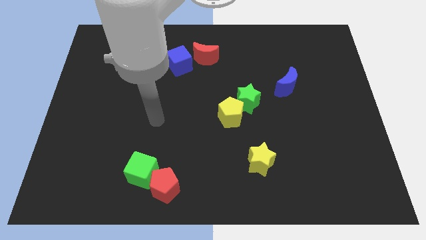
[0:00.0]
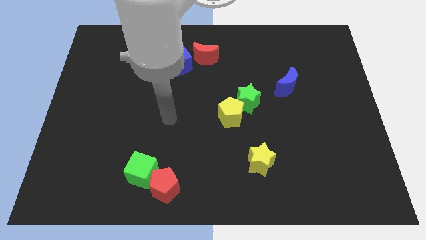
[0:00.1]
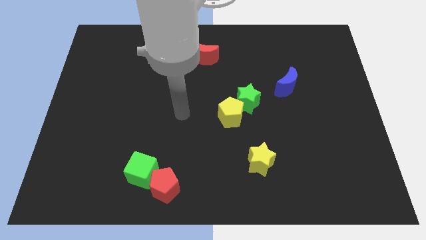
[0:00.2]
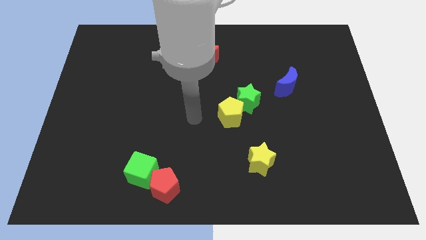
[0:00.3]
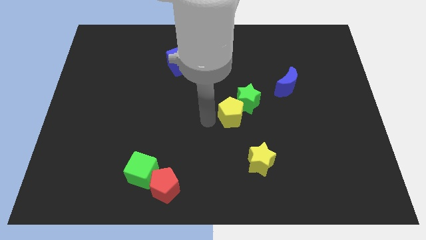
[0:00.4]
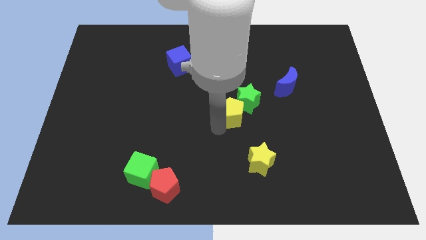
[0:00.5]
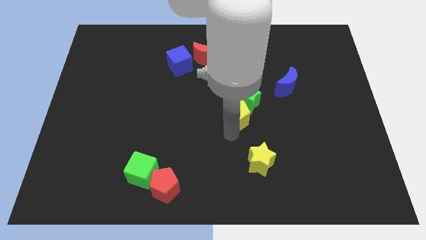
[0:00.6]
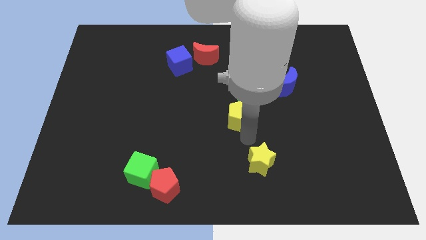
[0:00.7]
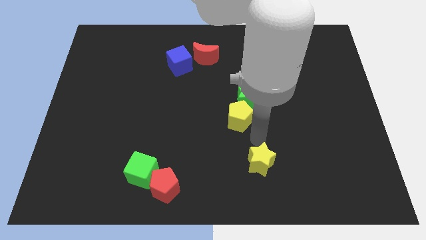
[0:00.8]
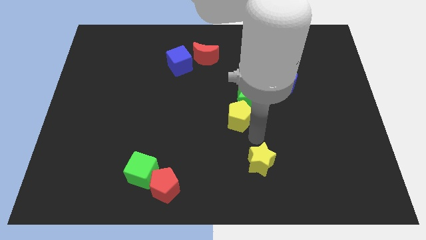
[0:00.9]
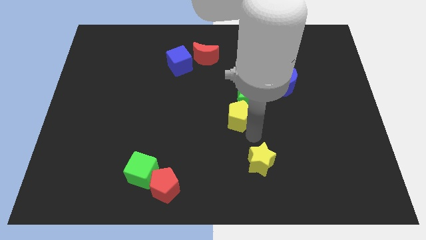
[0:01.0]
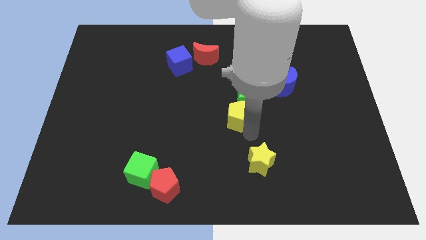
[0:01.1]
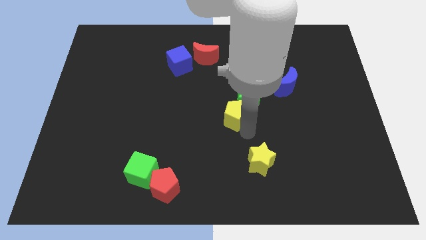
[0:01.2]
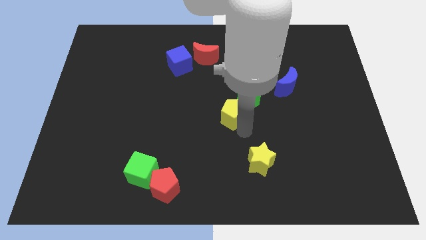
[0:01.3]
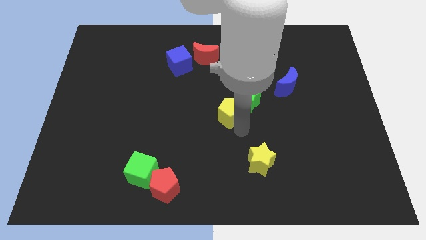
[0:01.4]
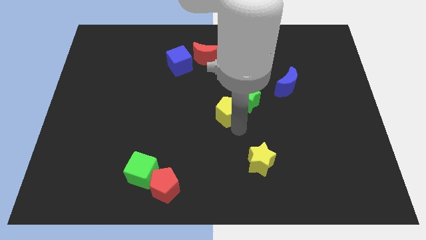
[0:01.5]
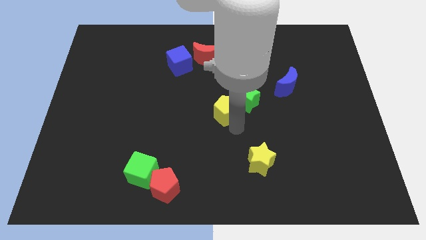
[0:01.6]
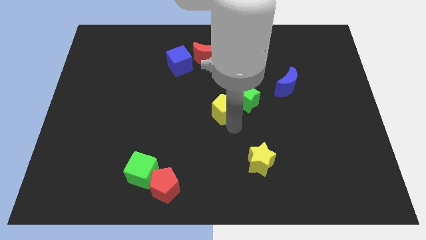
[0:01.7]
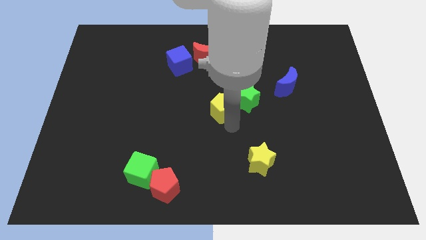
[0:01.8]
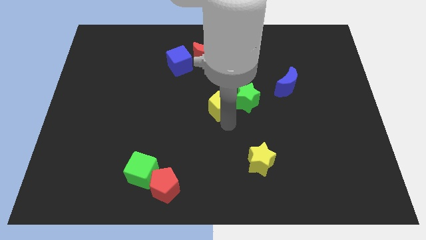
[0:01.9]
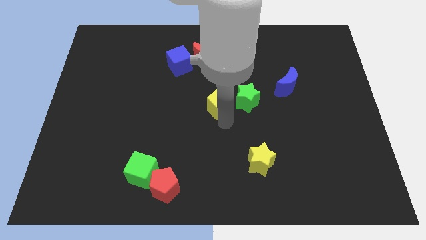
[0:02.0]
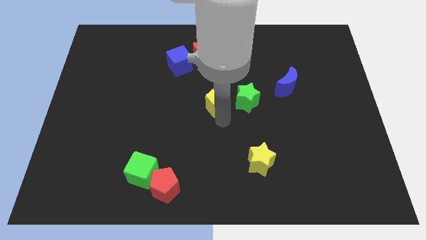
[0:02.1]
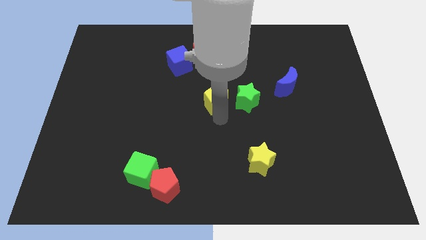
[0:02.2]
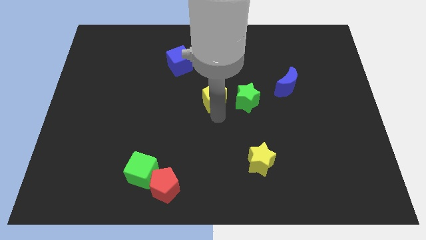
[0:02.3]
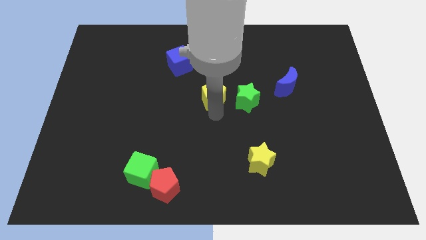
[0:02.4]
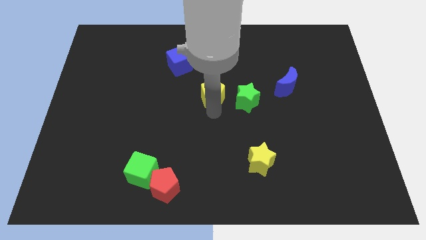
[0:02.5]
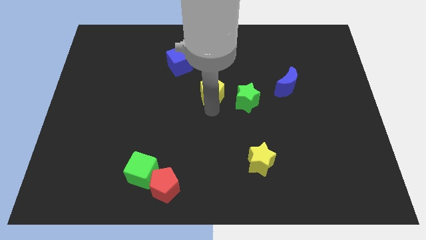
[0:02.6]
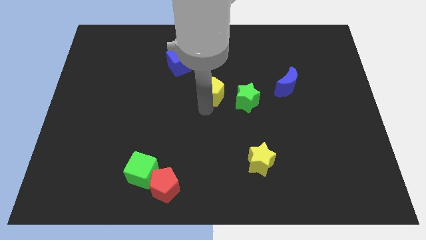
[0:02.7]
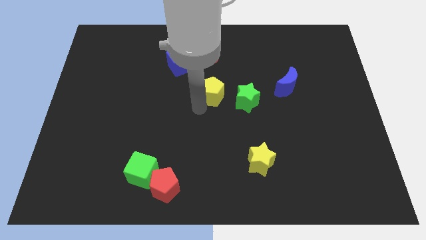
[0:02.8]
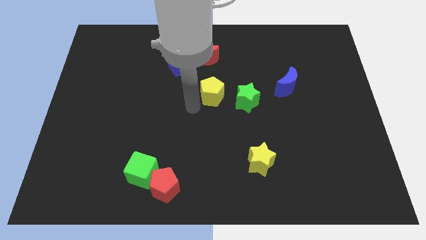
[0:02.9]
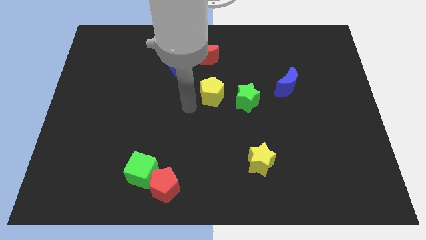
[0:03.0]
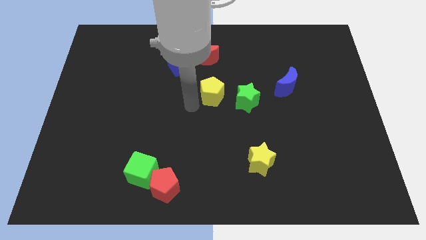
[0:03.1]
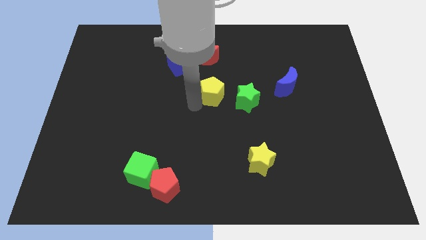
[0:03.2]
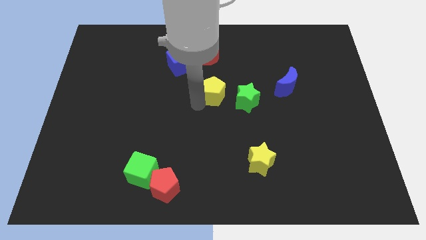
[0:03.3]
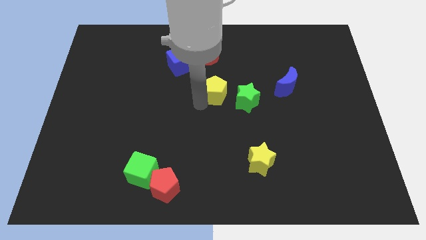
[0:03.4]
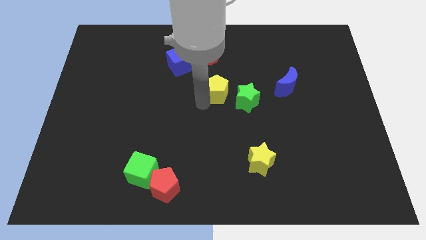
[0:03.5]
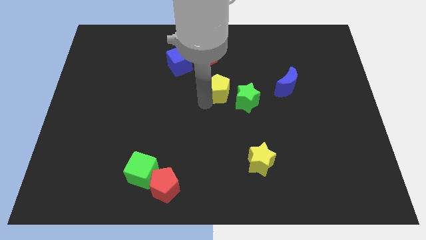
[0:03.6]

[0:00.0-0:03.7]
move the yellow pentagon upwards somewhat

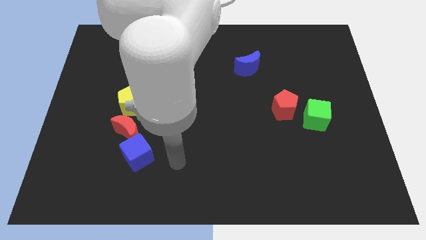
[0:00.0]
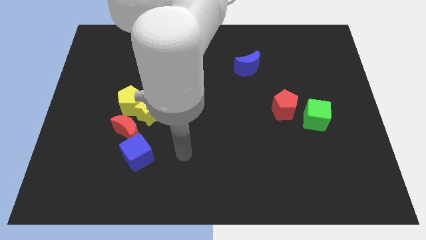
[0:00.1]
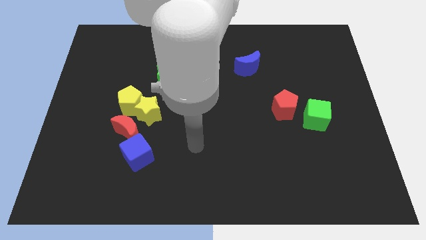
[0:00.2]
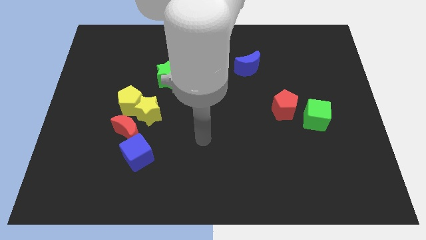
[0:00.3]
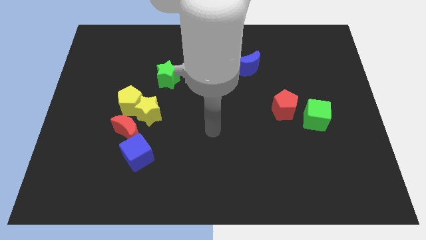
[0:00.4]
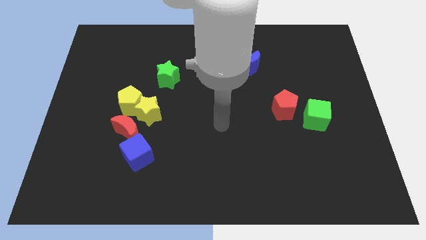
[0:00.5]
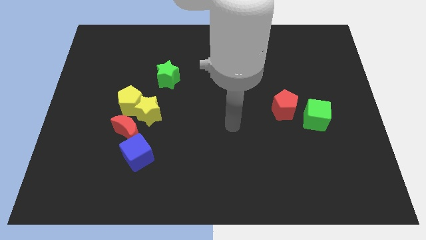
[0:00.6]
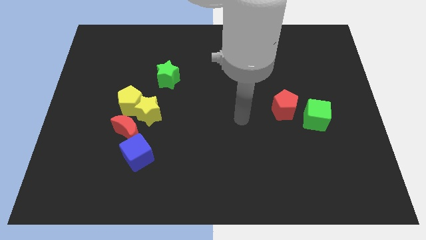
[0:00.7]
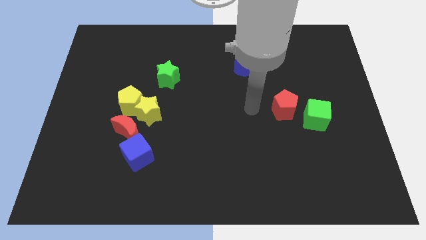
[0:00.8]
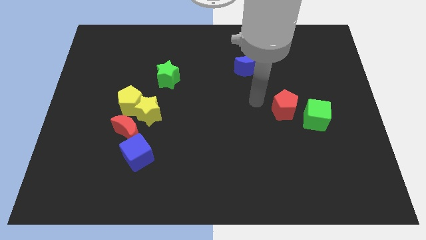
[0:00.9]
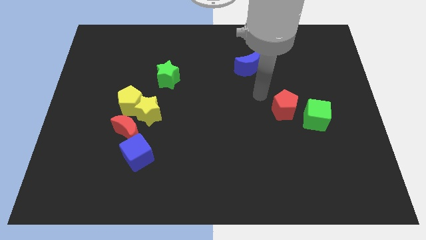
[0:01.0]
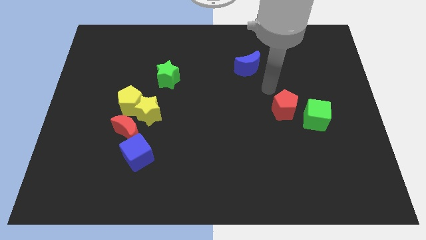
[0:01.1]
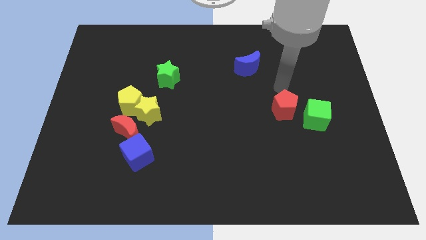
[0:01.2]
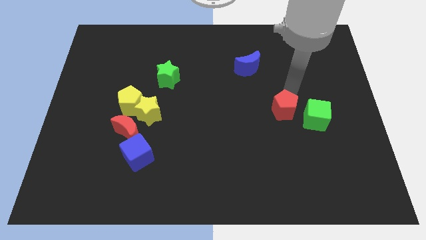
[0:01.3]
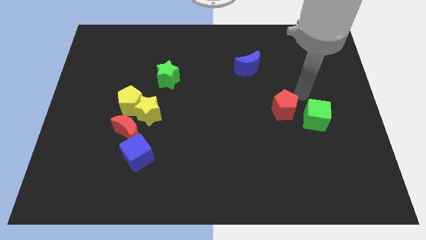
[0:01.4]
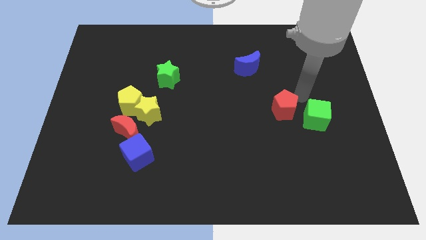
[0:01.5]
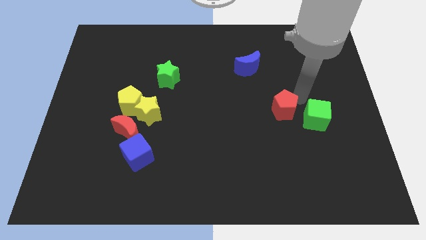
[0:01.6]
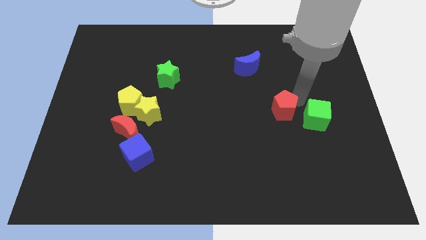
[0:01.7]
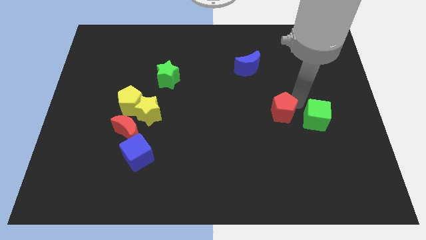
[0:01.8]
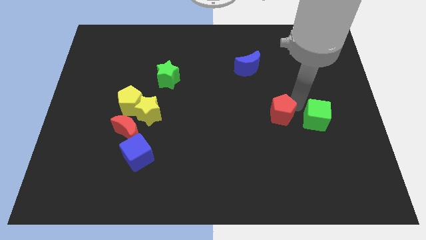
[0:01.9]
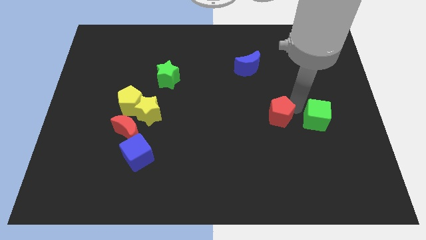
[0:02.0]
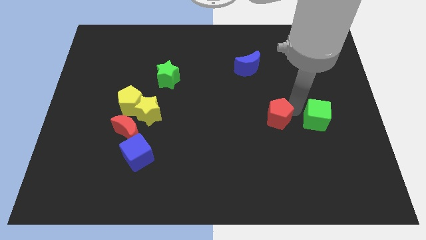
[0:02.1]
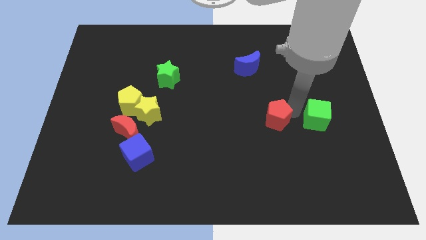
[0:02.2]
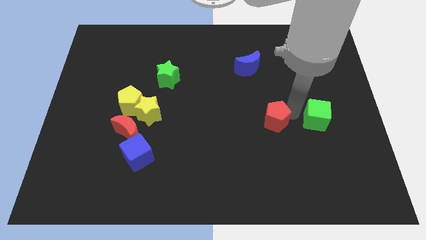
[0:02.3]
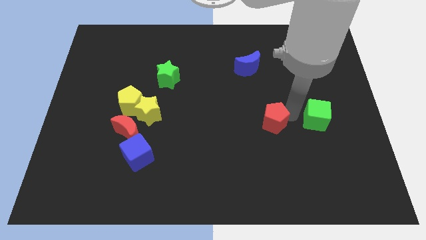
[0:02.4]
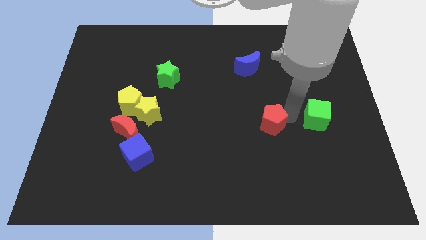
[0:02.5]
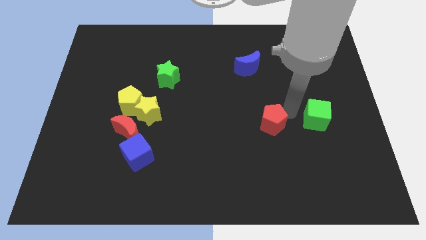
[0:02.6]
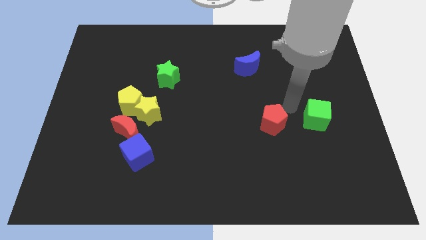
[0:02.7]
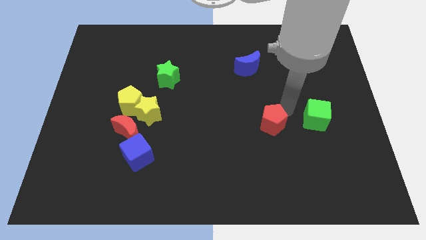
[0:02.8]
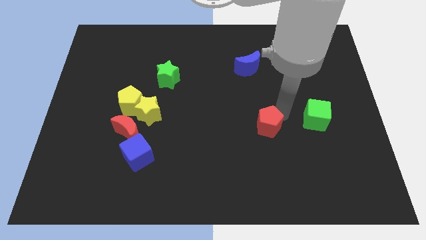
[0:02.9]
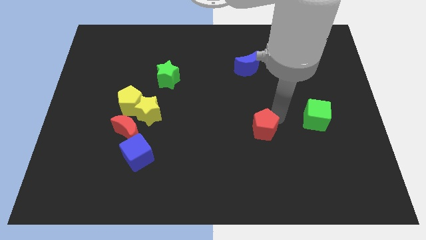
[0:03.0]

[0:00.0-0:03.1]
move the red pentagon somewhat downwards and then to the left

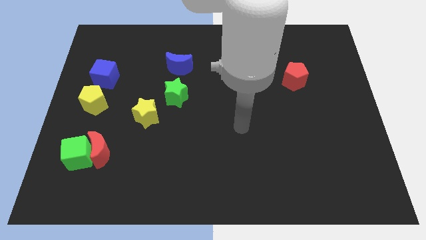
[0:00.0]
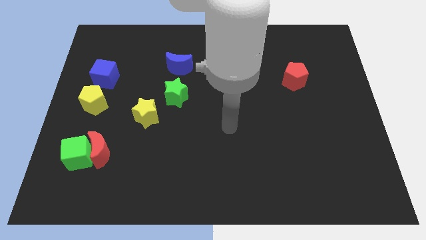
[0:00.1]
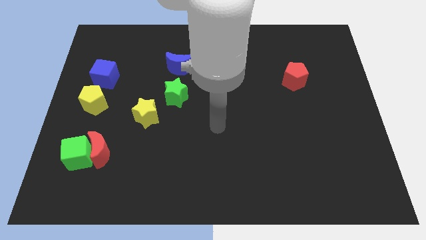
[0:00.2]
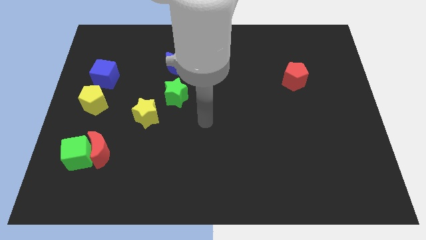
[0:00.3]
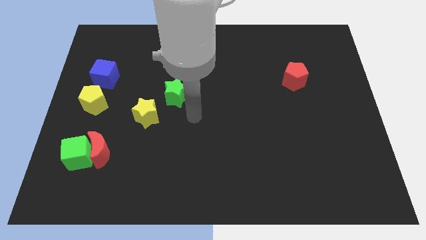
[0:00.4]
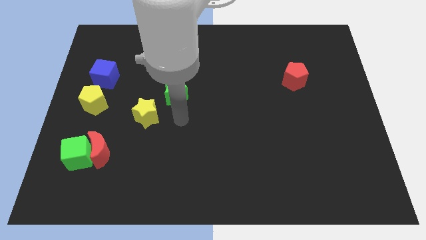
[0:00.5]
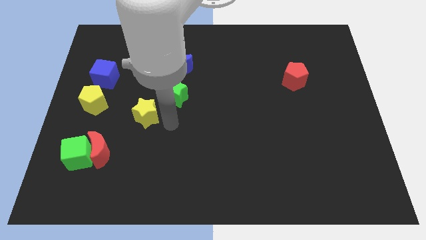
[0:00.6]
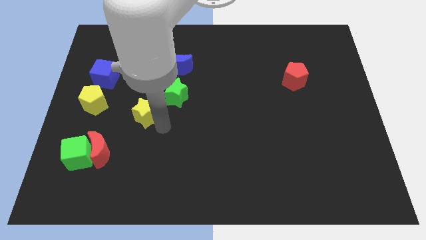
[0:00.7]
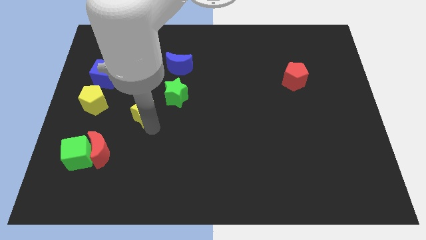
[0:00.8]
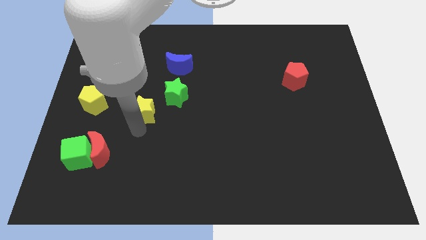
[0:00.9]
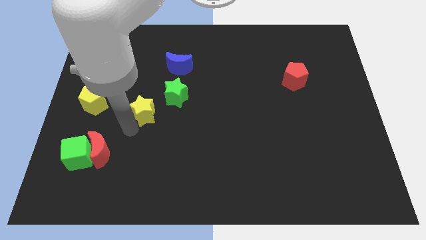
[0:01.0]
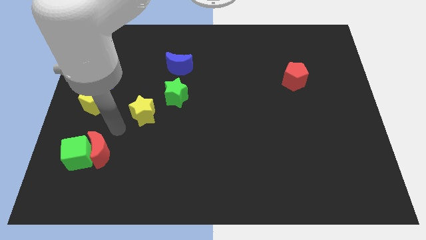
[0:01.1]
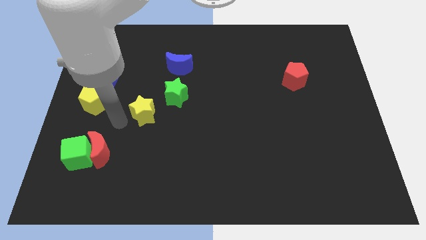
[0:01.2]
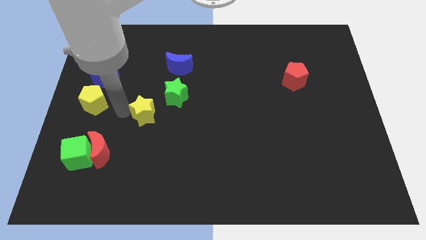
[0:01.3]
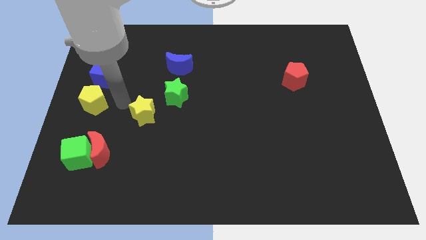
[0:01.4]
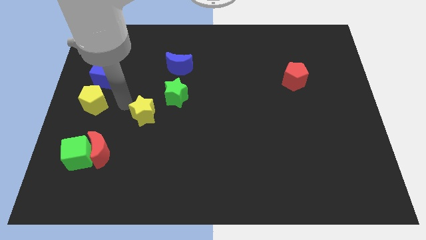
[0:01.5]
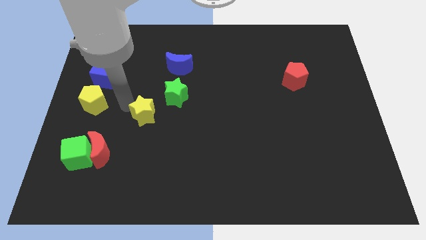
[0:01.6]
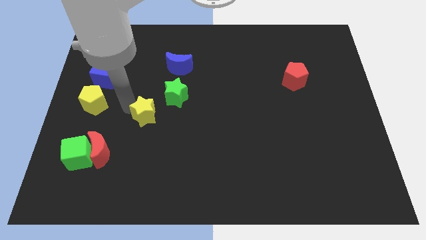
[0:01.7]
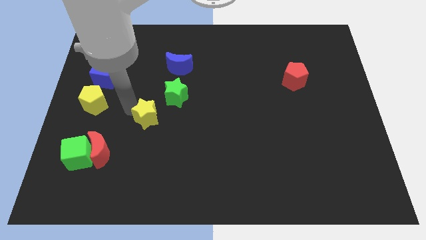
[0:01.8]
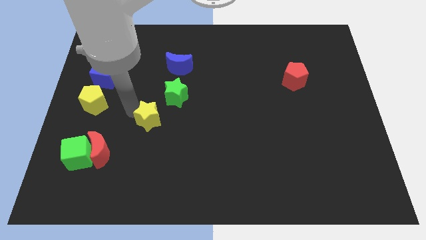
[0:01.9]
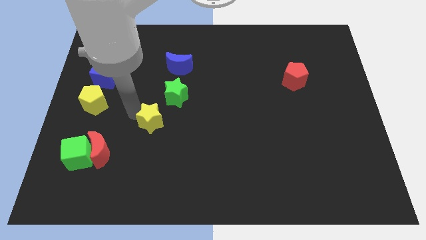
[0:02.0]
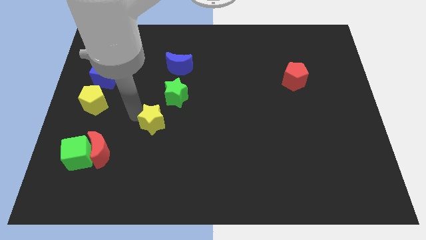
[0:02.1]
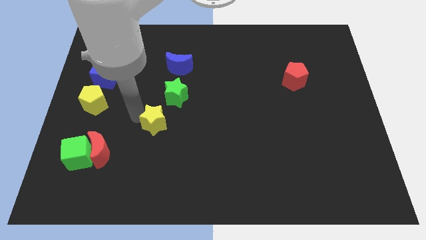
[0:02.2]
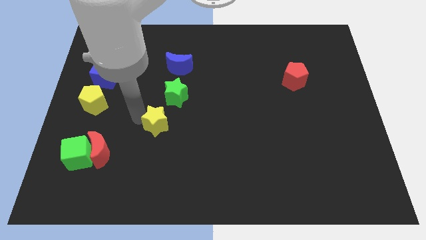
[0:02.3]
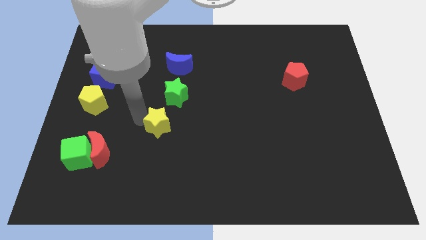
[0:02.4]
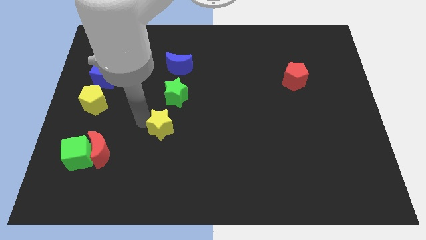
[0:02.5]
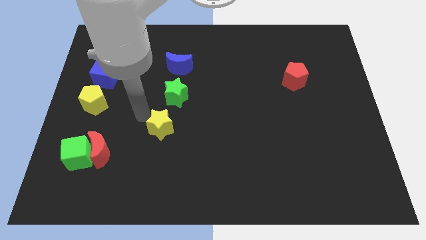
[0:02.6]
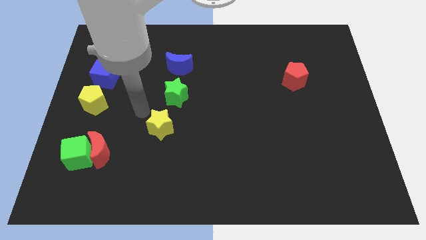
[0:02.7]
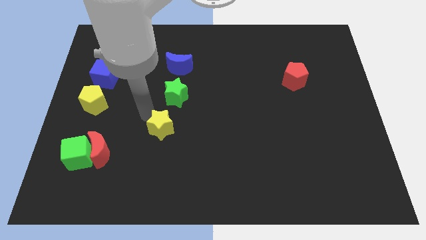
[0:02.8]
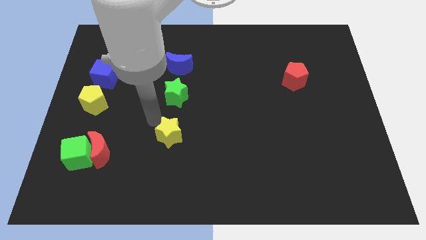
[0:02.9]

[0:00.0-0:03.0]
push the yellow star diagonally downwards and to the right slightly
